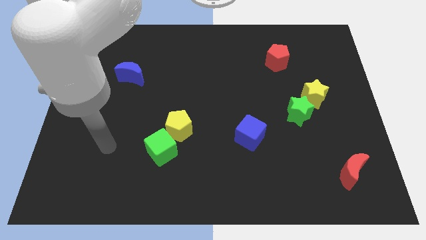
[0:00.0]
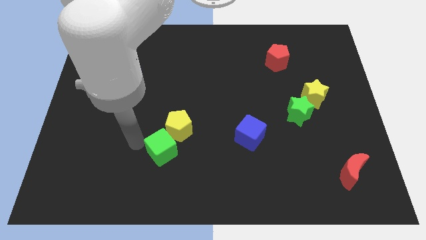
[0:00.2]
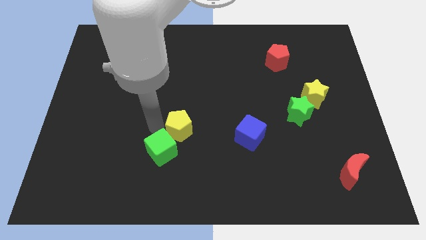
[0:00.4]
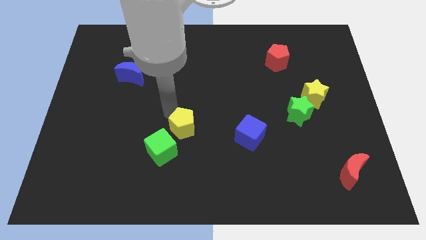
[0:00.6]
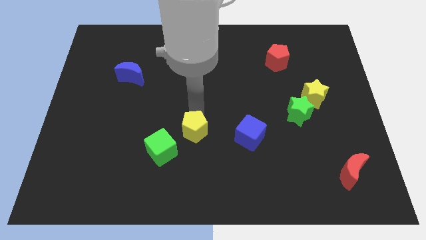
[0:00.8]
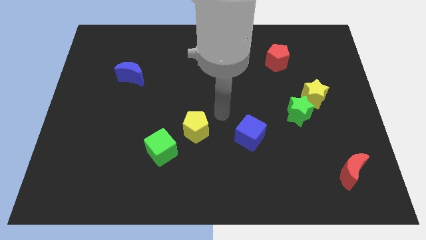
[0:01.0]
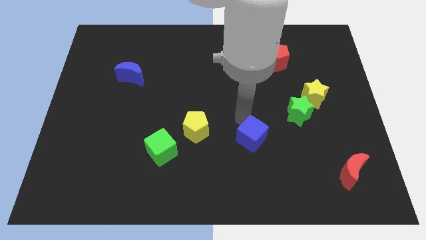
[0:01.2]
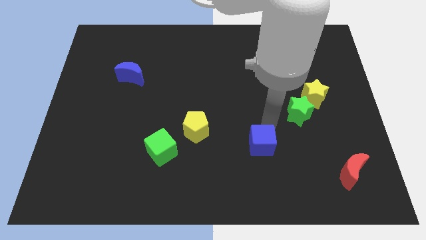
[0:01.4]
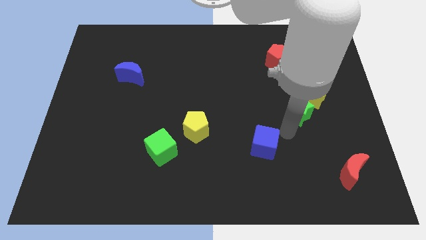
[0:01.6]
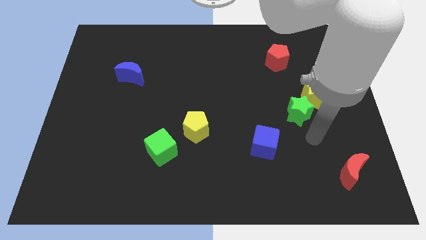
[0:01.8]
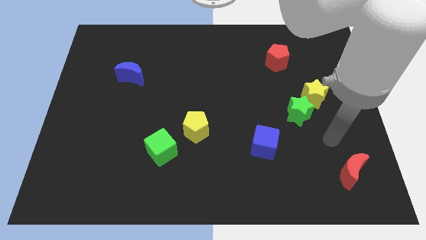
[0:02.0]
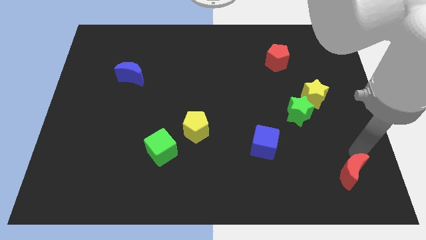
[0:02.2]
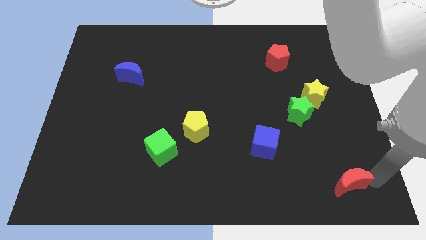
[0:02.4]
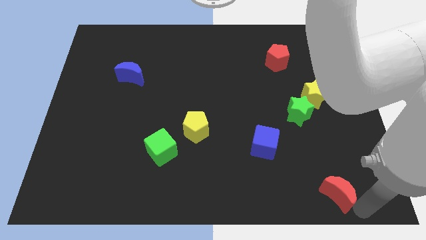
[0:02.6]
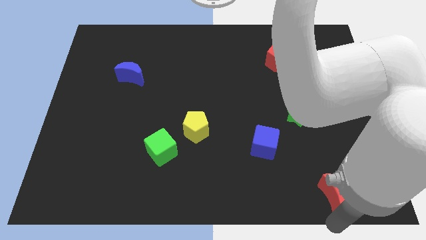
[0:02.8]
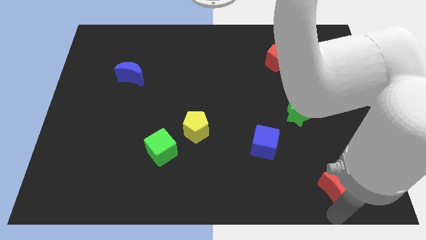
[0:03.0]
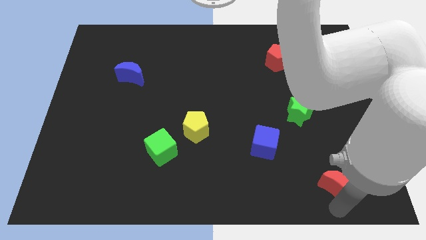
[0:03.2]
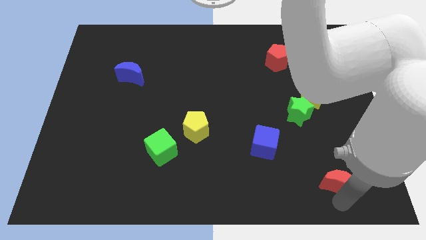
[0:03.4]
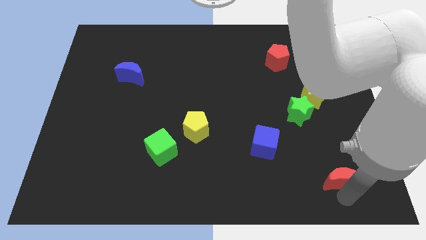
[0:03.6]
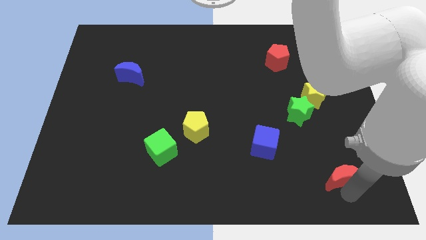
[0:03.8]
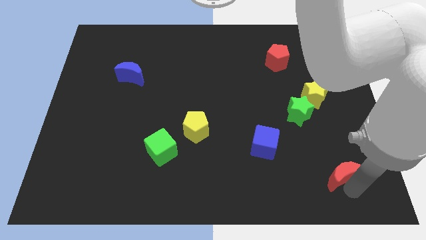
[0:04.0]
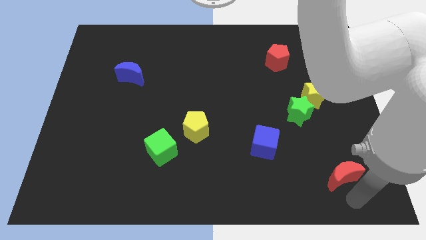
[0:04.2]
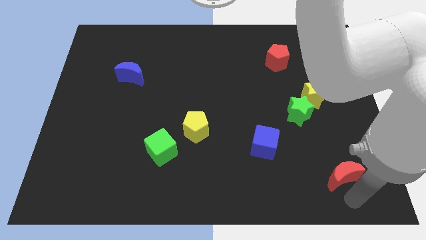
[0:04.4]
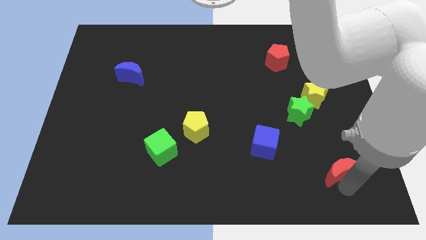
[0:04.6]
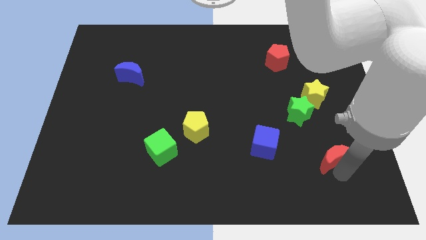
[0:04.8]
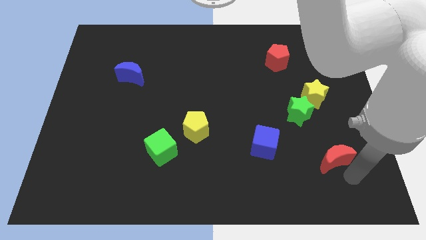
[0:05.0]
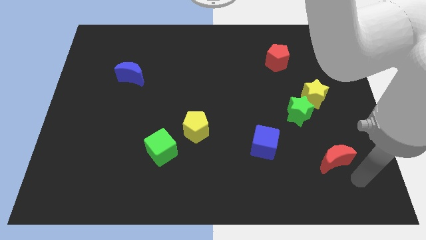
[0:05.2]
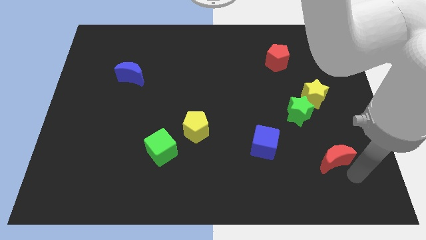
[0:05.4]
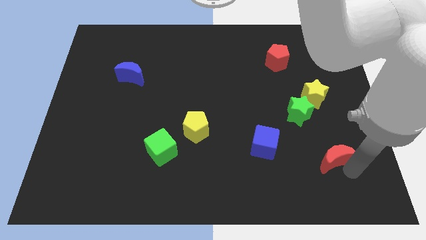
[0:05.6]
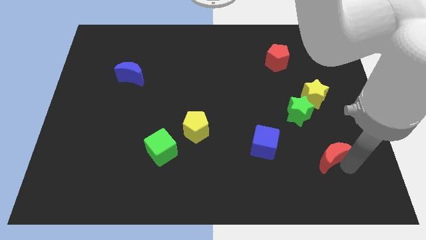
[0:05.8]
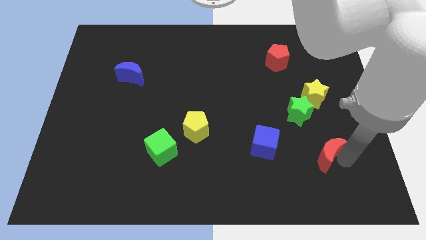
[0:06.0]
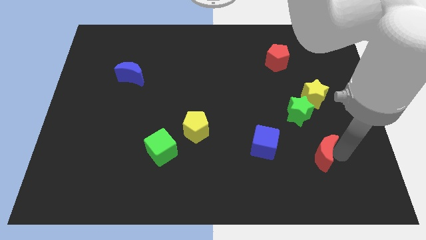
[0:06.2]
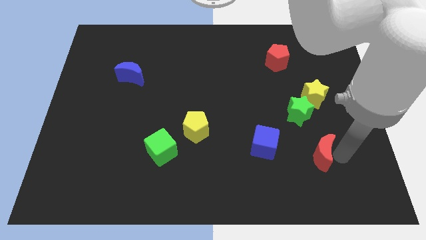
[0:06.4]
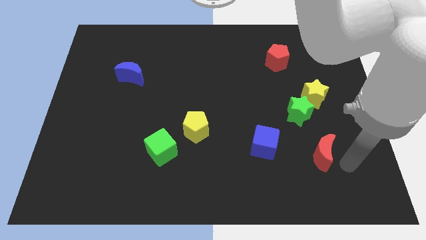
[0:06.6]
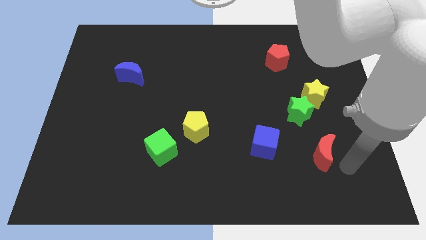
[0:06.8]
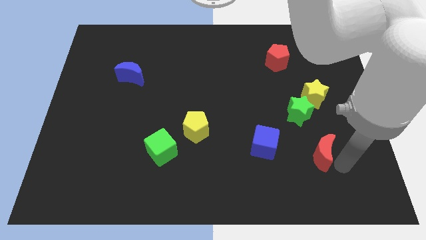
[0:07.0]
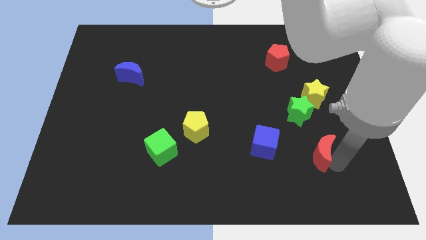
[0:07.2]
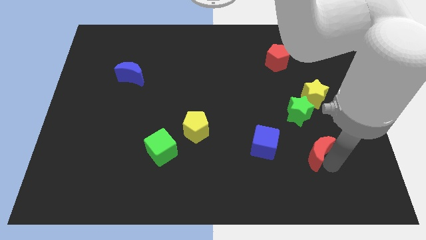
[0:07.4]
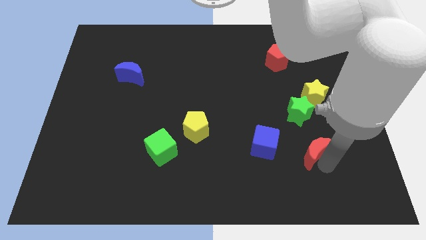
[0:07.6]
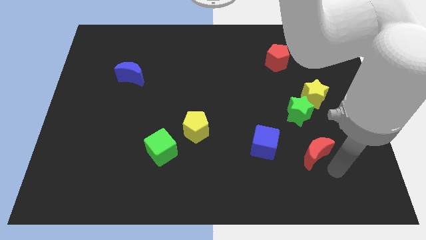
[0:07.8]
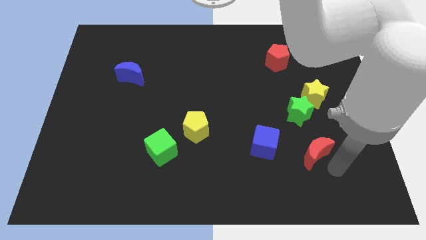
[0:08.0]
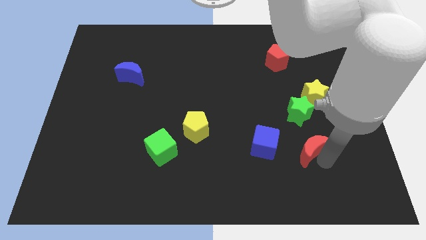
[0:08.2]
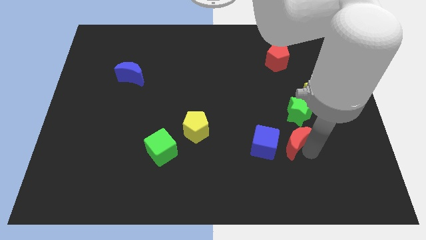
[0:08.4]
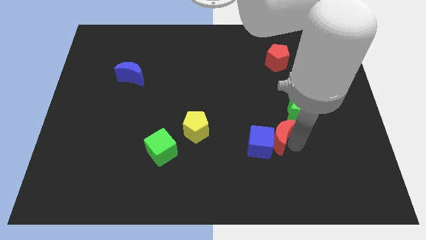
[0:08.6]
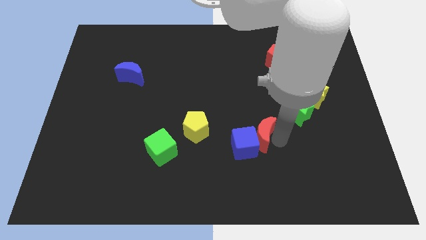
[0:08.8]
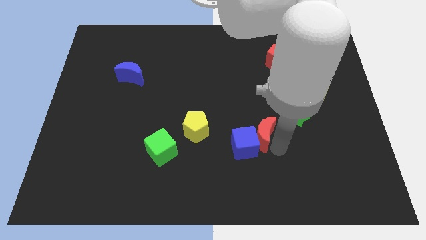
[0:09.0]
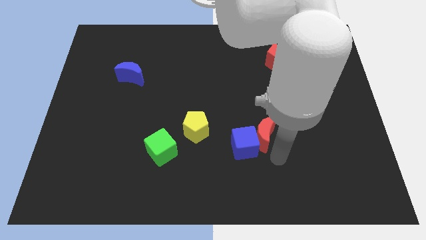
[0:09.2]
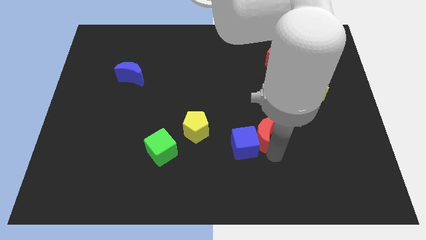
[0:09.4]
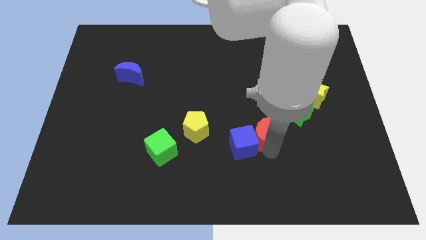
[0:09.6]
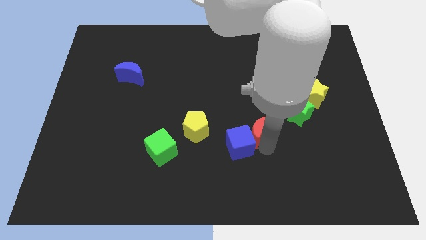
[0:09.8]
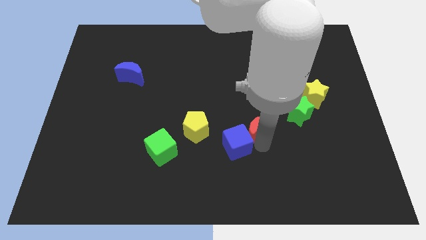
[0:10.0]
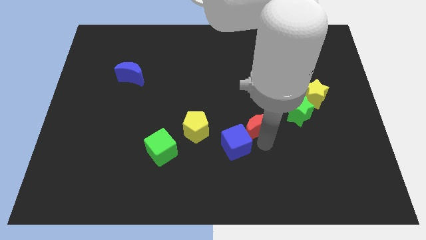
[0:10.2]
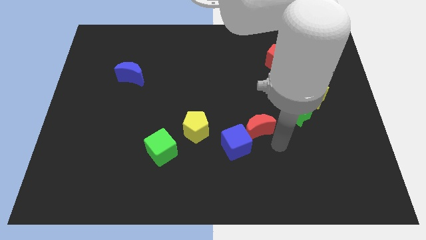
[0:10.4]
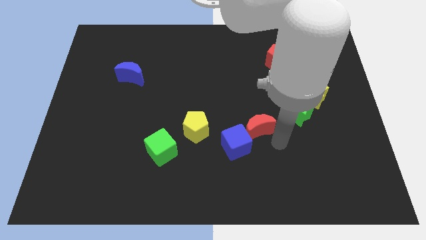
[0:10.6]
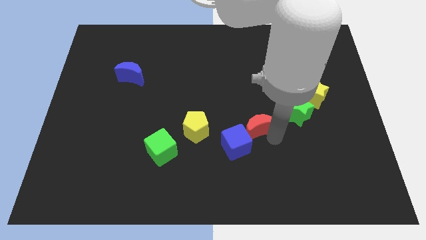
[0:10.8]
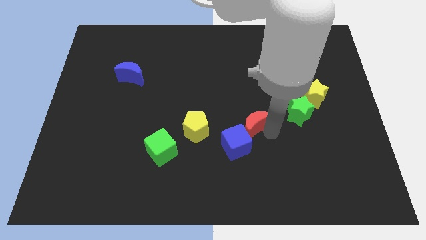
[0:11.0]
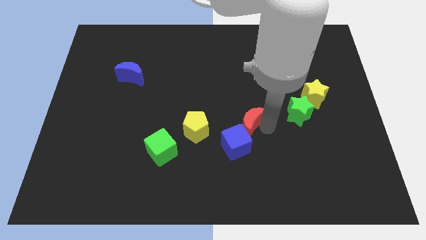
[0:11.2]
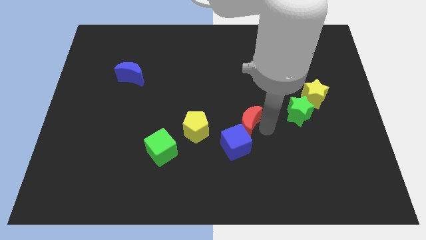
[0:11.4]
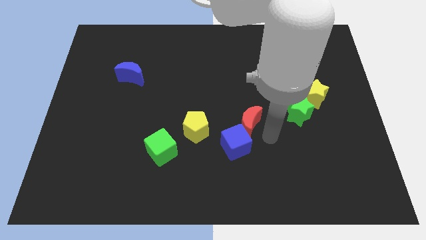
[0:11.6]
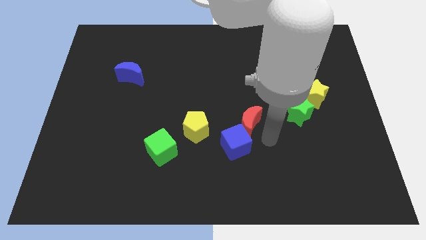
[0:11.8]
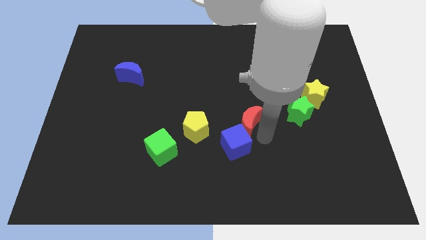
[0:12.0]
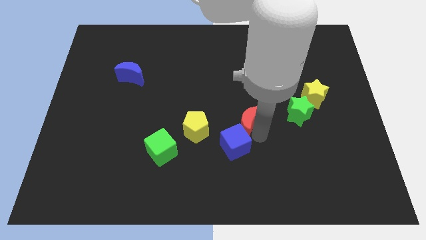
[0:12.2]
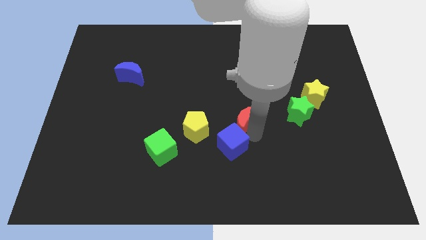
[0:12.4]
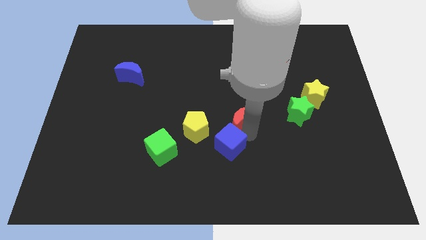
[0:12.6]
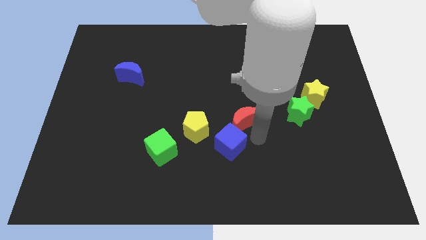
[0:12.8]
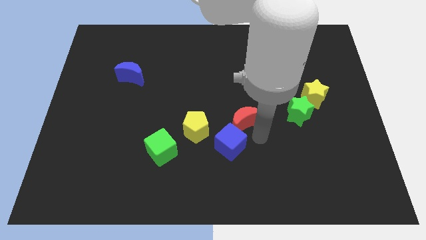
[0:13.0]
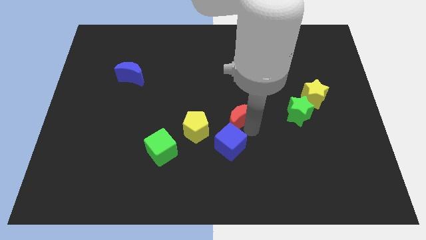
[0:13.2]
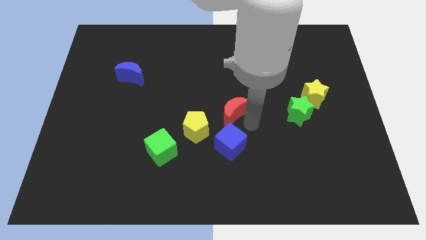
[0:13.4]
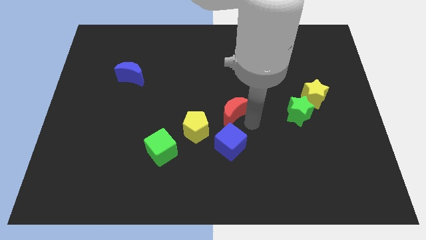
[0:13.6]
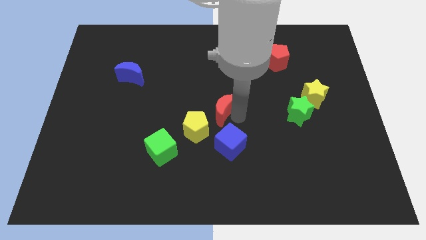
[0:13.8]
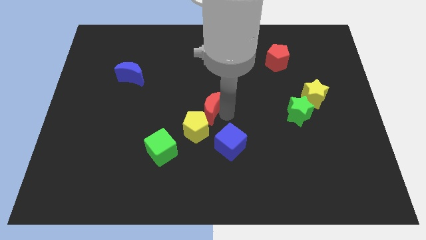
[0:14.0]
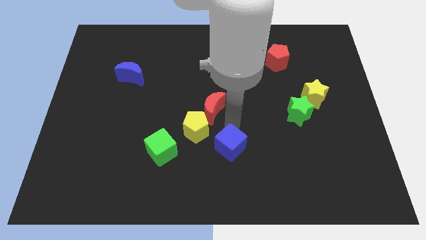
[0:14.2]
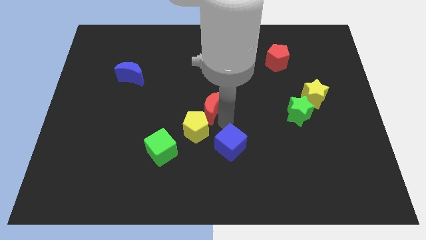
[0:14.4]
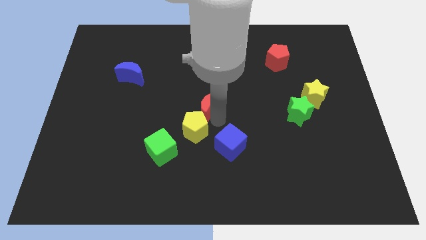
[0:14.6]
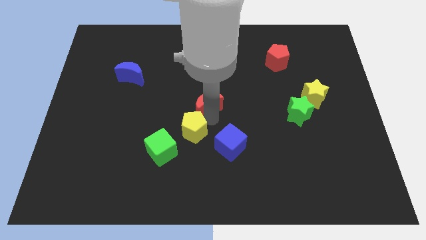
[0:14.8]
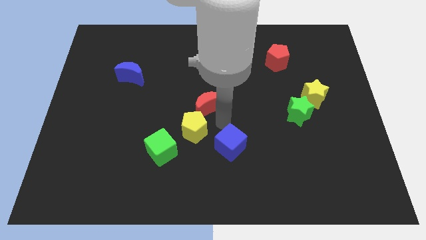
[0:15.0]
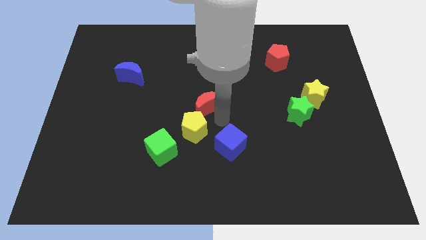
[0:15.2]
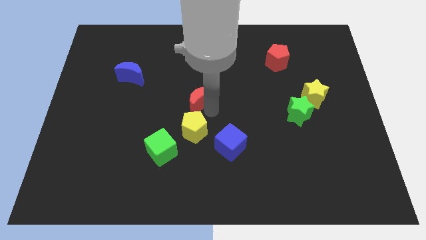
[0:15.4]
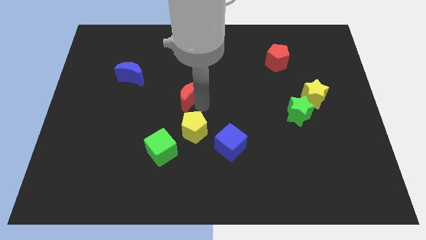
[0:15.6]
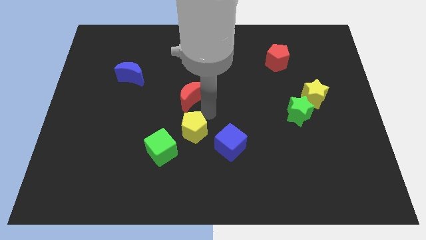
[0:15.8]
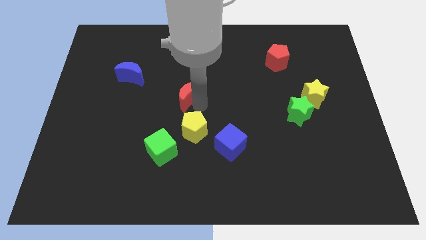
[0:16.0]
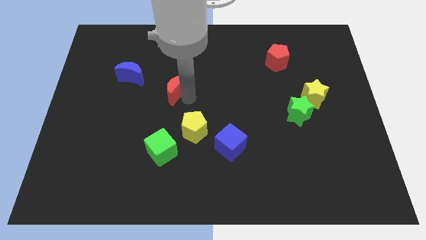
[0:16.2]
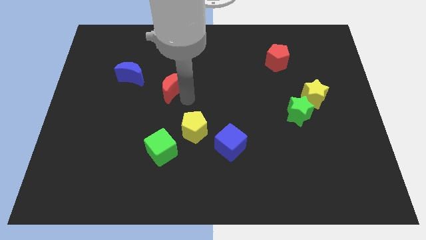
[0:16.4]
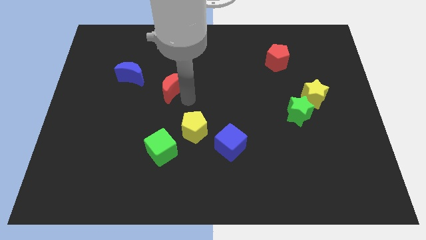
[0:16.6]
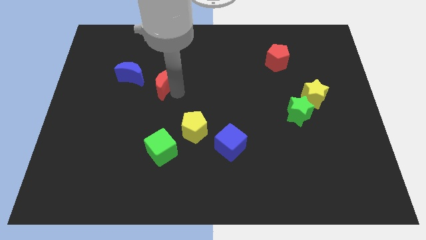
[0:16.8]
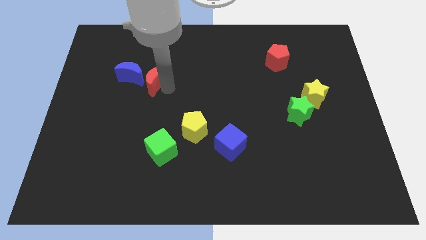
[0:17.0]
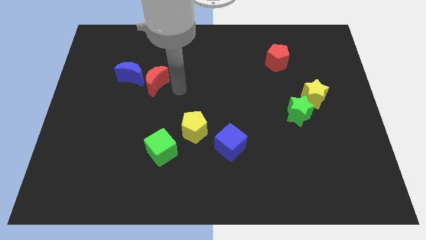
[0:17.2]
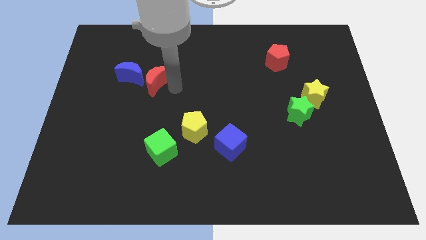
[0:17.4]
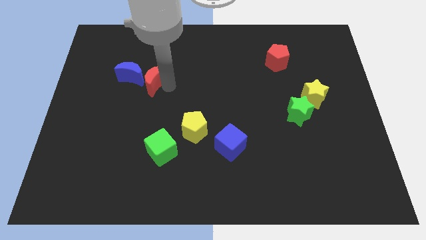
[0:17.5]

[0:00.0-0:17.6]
push the red moon next to the blue moon
